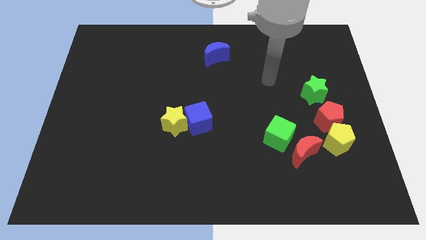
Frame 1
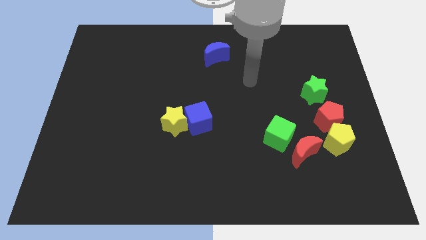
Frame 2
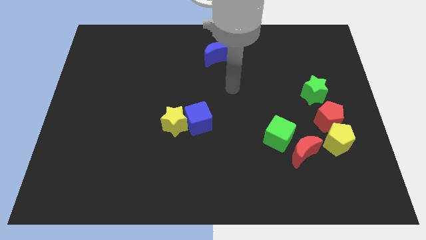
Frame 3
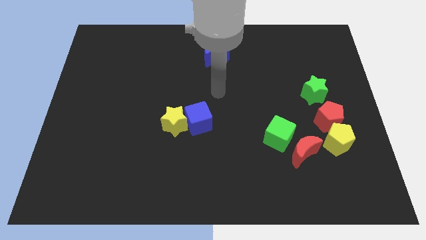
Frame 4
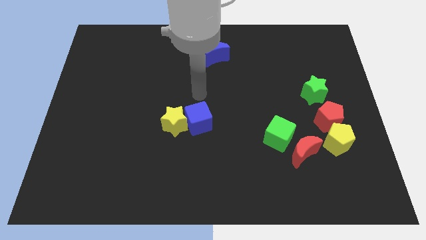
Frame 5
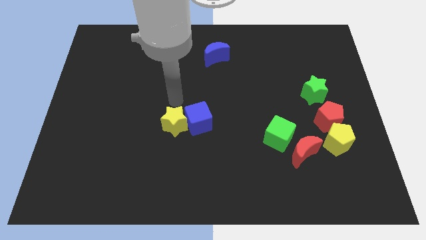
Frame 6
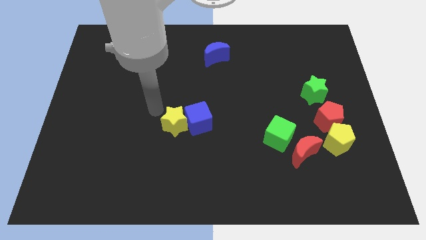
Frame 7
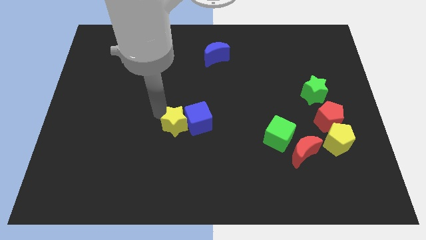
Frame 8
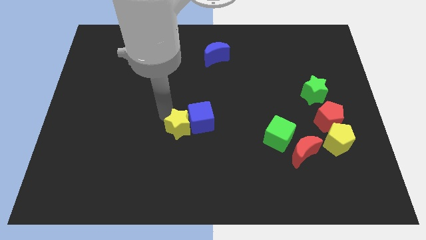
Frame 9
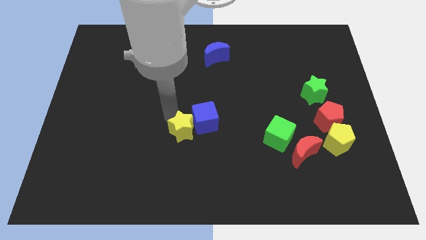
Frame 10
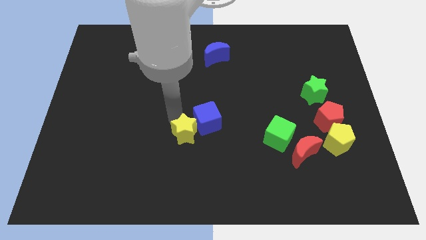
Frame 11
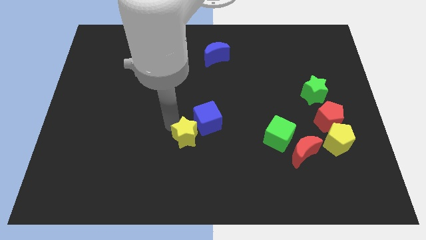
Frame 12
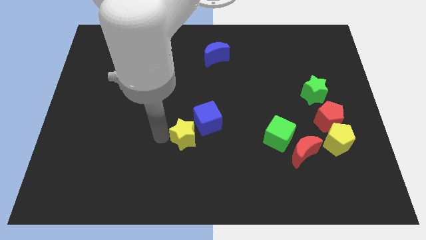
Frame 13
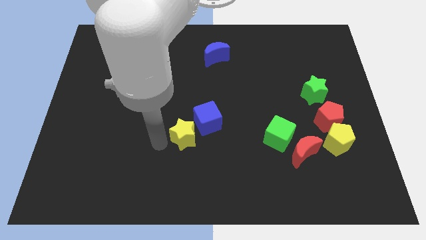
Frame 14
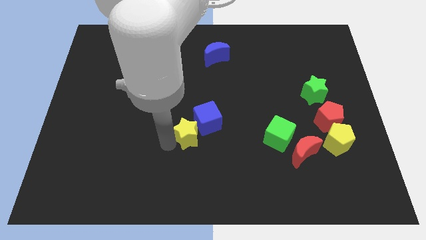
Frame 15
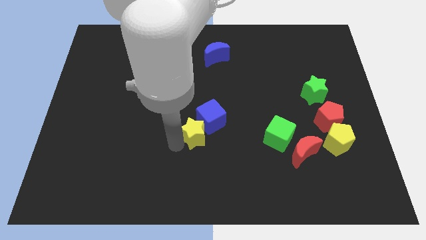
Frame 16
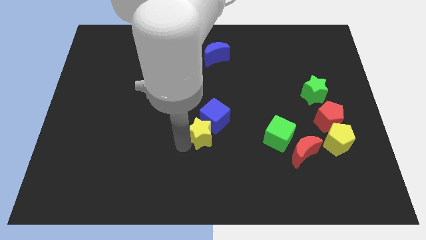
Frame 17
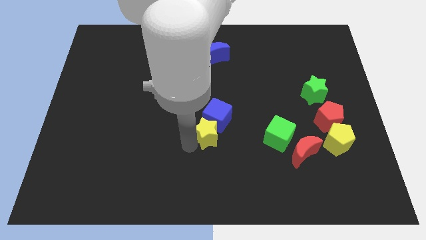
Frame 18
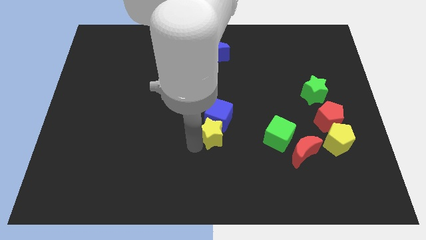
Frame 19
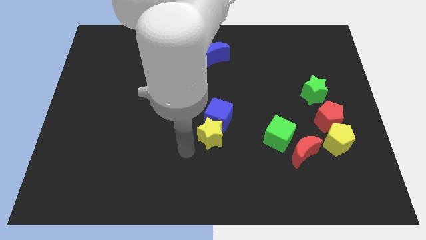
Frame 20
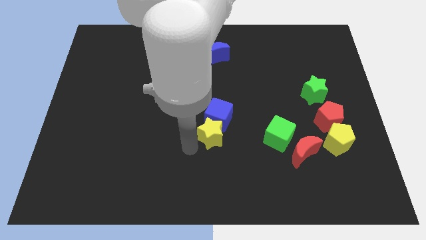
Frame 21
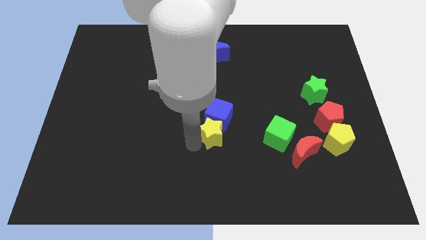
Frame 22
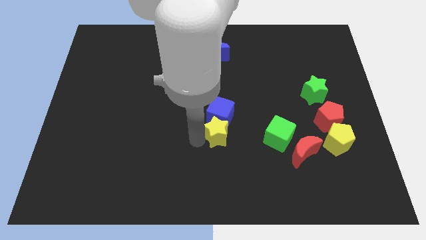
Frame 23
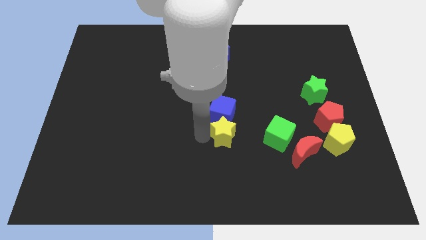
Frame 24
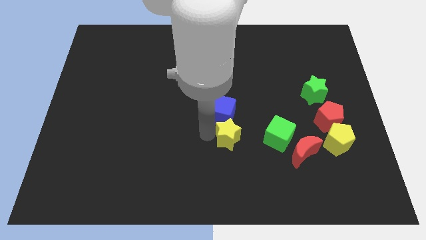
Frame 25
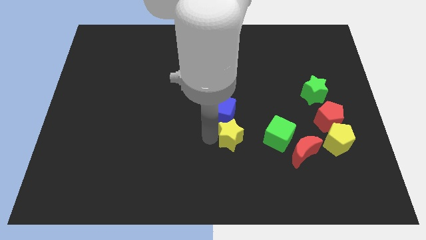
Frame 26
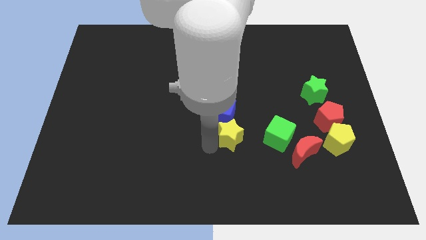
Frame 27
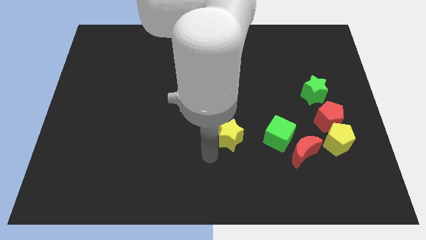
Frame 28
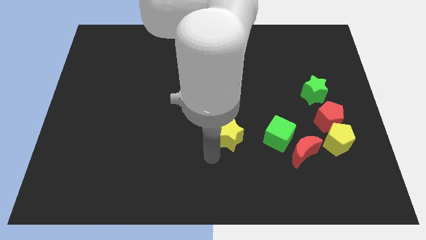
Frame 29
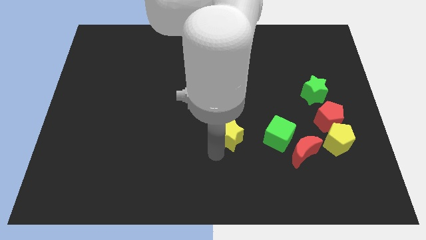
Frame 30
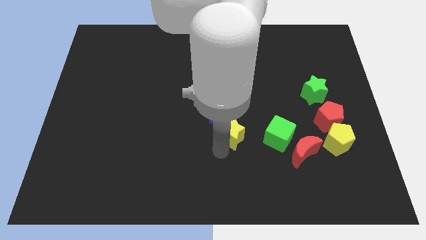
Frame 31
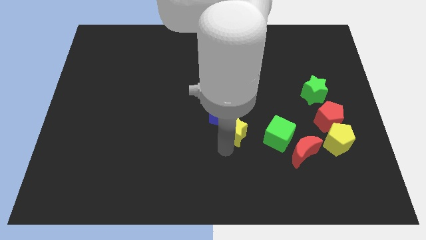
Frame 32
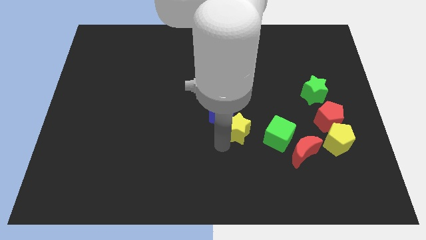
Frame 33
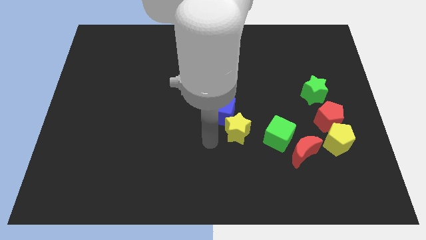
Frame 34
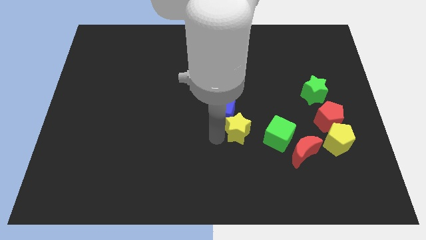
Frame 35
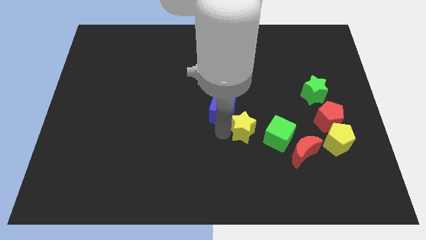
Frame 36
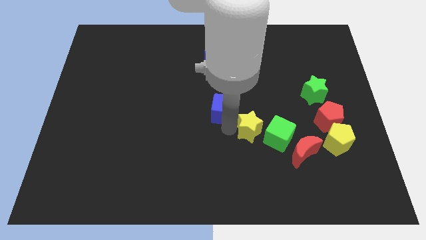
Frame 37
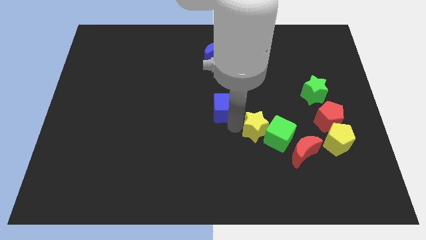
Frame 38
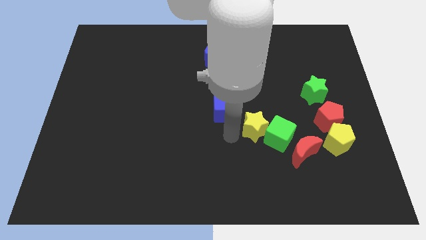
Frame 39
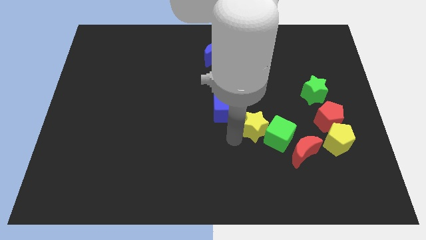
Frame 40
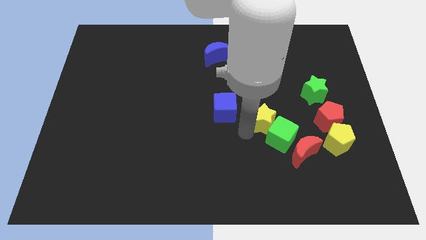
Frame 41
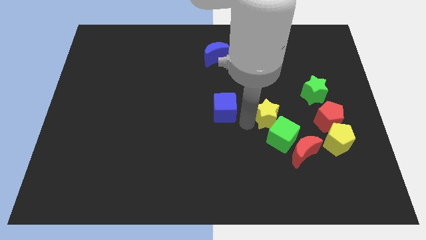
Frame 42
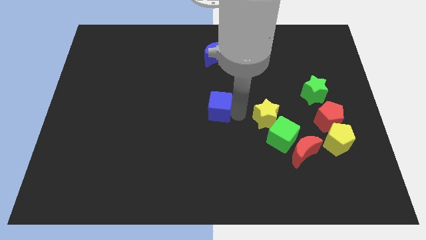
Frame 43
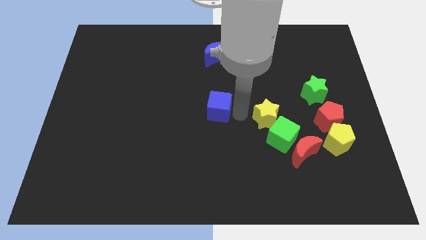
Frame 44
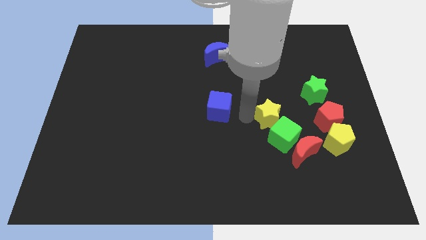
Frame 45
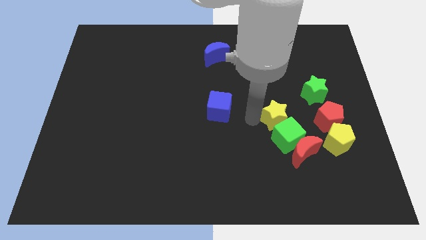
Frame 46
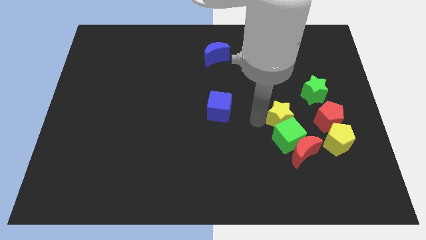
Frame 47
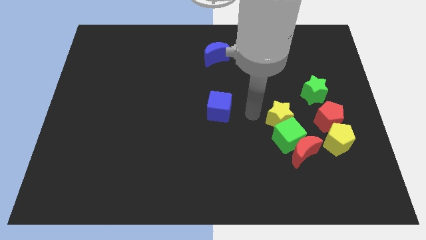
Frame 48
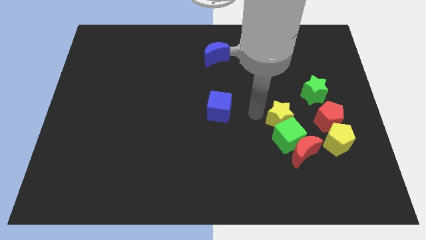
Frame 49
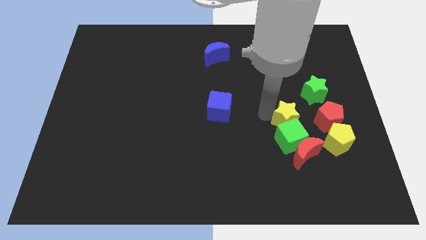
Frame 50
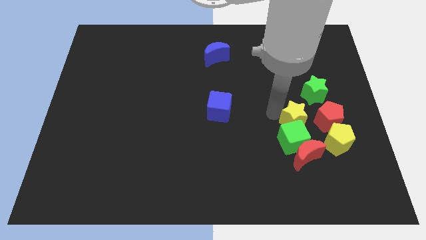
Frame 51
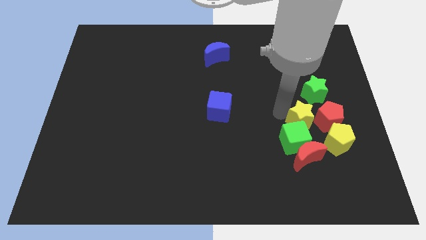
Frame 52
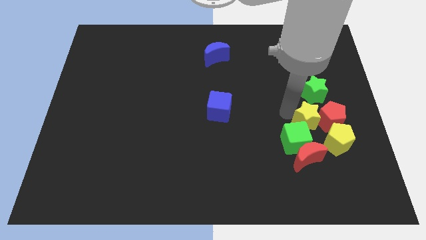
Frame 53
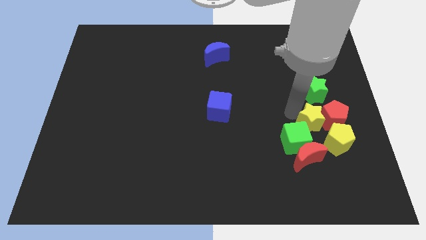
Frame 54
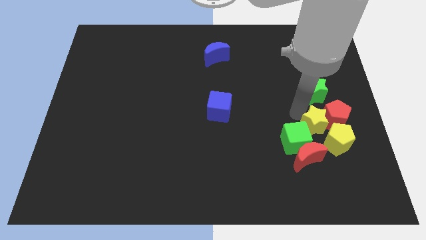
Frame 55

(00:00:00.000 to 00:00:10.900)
move the yellow star to the yellow pentagon

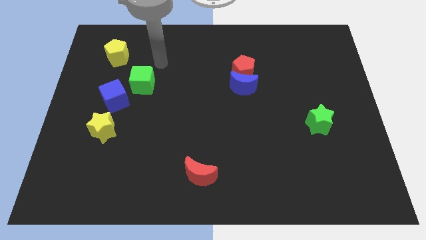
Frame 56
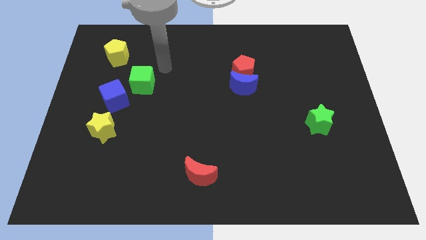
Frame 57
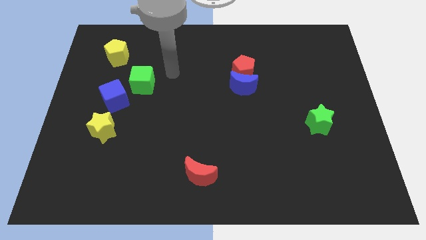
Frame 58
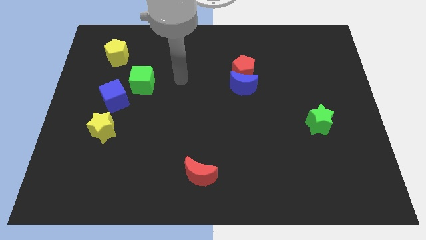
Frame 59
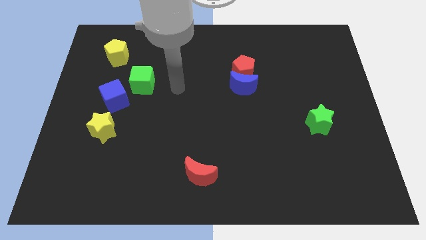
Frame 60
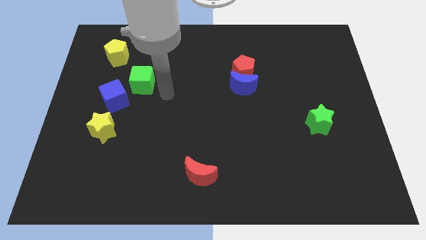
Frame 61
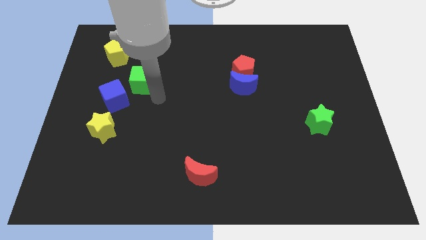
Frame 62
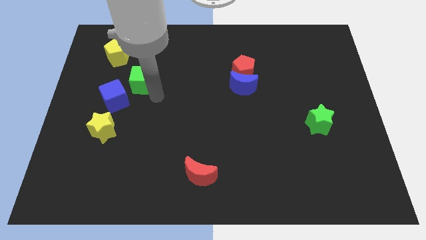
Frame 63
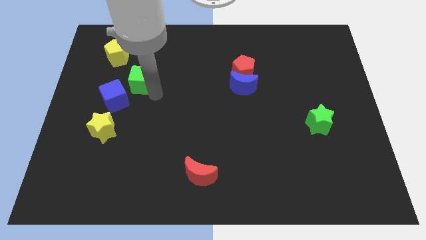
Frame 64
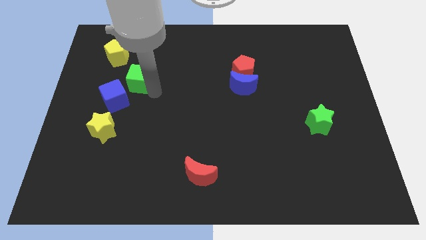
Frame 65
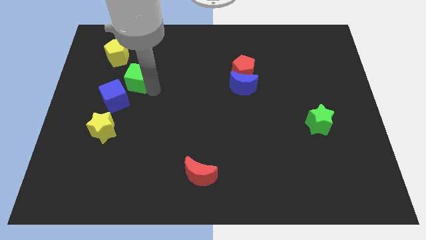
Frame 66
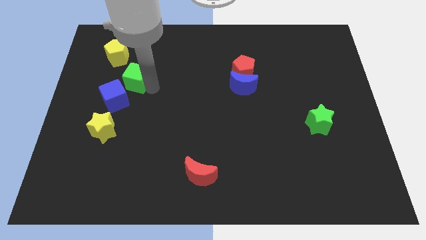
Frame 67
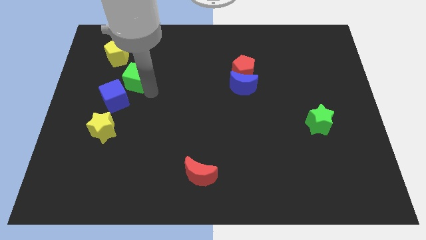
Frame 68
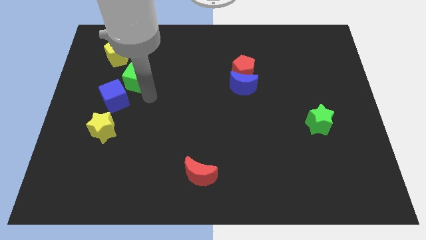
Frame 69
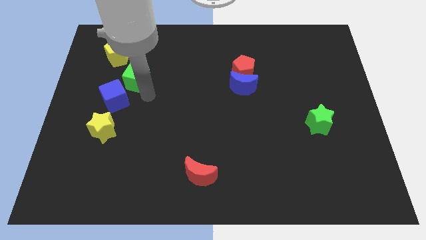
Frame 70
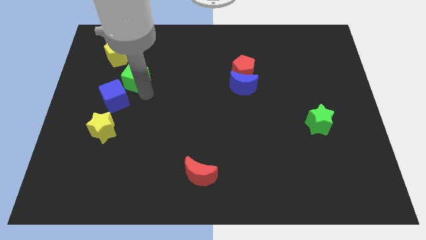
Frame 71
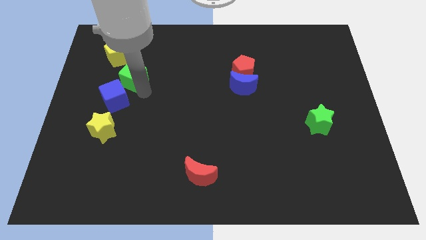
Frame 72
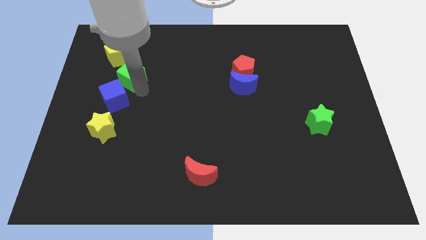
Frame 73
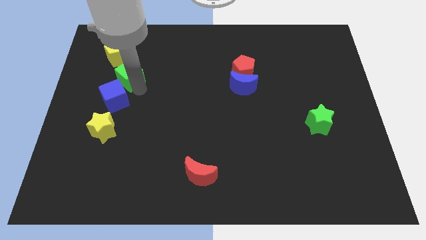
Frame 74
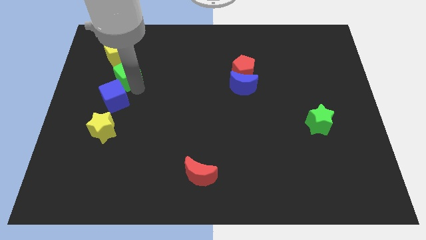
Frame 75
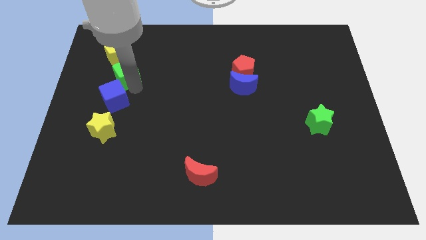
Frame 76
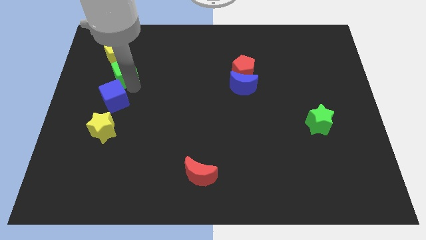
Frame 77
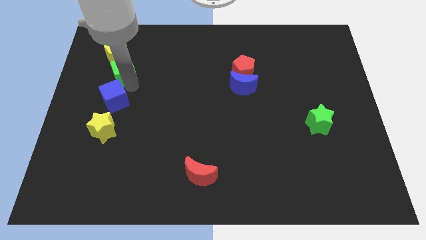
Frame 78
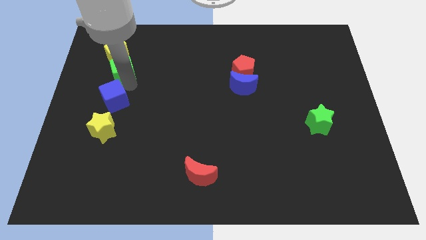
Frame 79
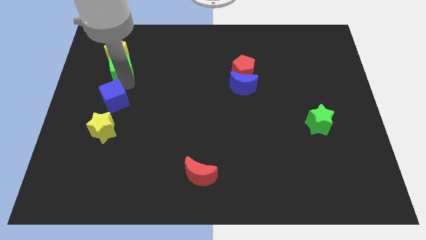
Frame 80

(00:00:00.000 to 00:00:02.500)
slide the green cube towards the yellow pentagon
